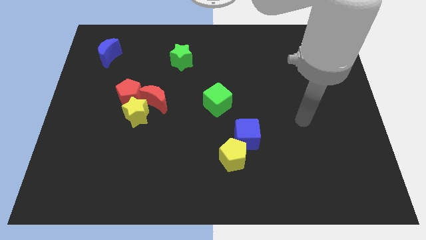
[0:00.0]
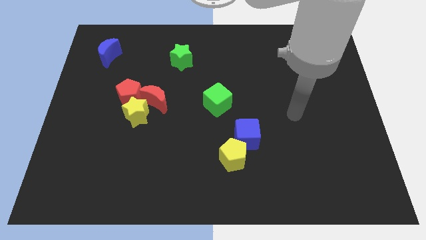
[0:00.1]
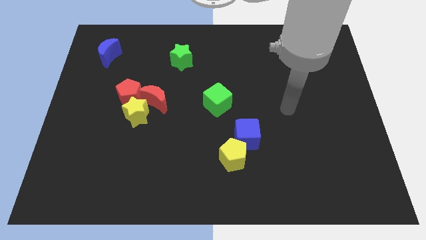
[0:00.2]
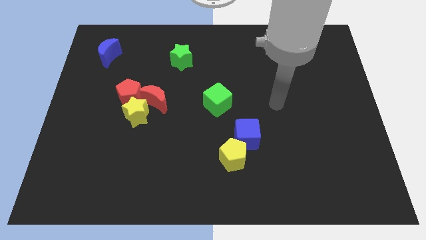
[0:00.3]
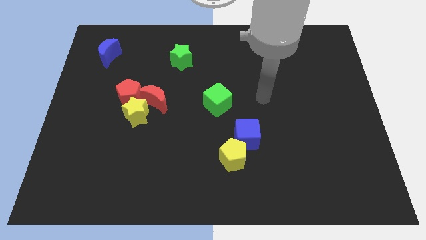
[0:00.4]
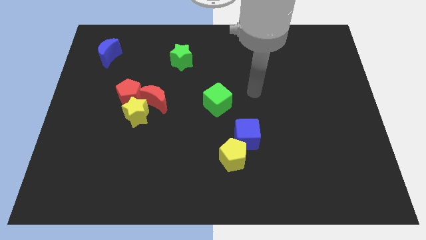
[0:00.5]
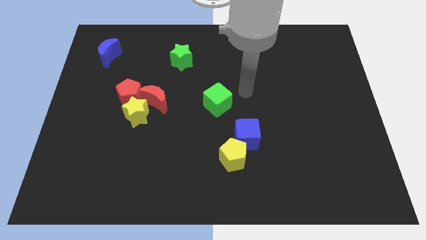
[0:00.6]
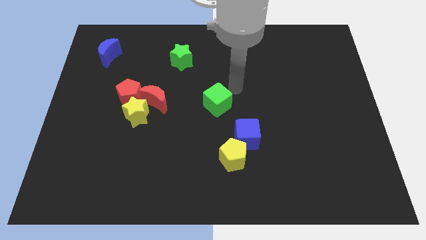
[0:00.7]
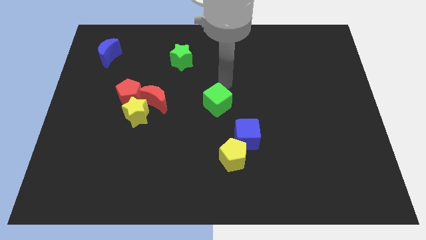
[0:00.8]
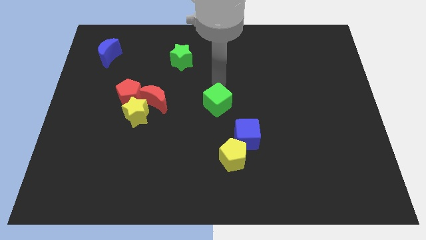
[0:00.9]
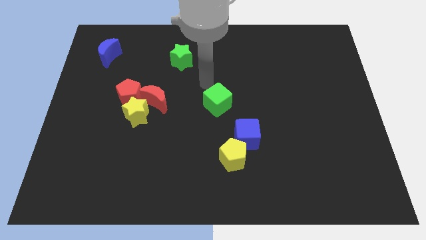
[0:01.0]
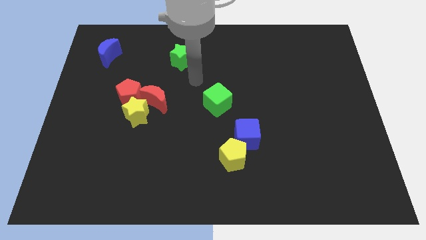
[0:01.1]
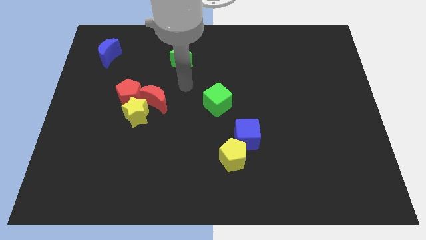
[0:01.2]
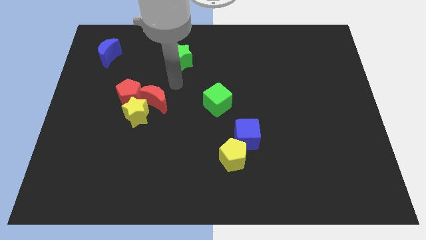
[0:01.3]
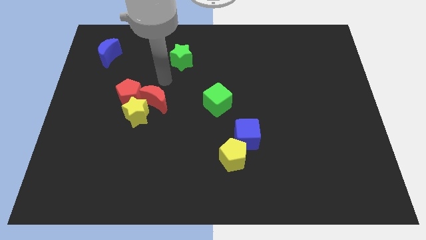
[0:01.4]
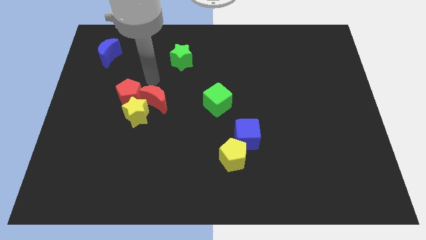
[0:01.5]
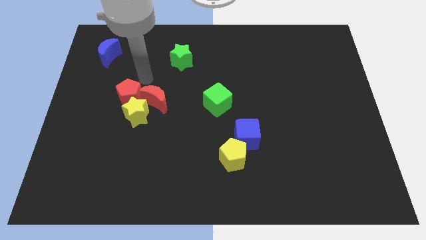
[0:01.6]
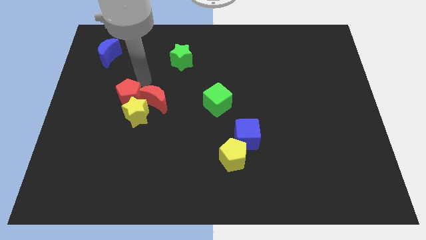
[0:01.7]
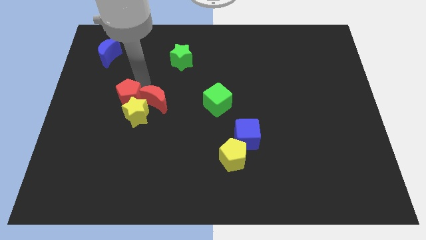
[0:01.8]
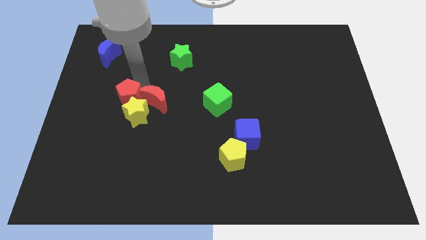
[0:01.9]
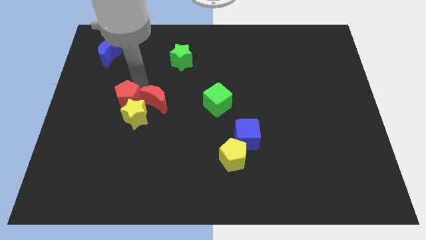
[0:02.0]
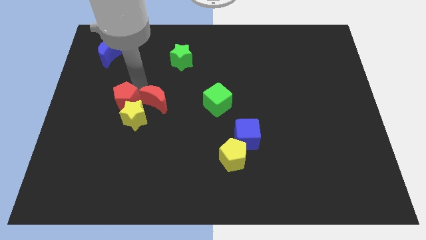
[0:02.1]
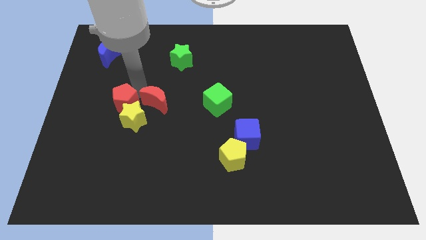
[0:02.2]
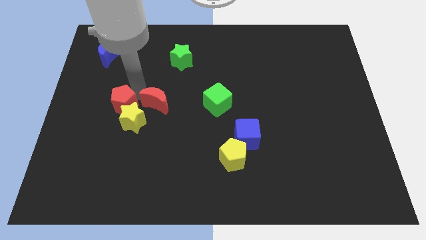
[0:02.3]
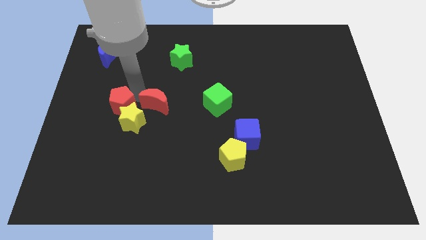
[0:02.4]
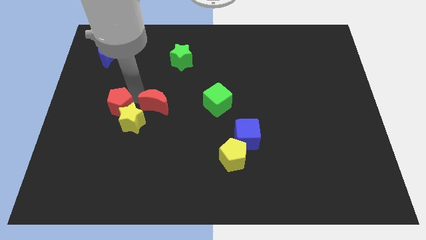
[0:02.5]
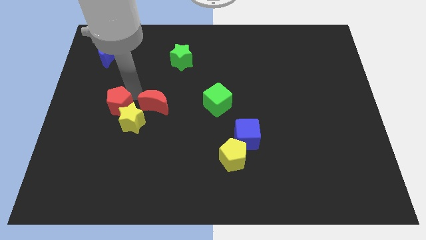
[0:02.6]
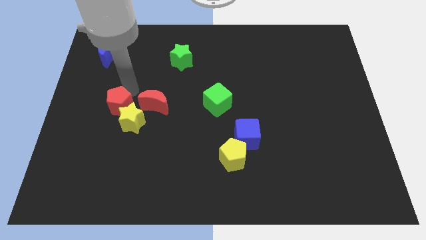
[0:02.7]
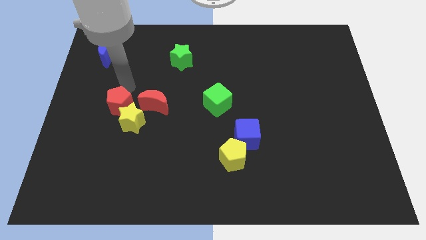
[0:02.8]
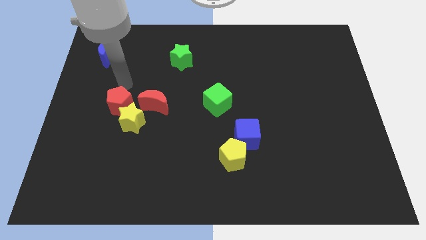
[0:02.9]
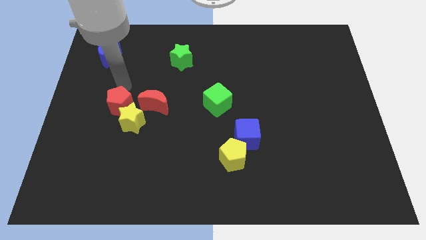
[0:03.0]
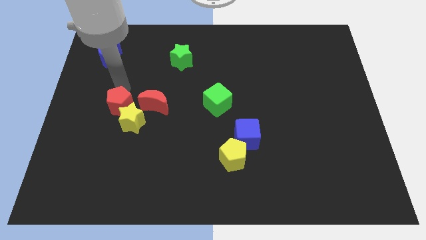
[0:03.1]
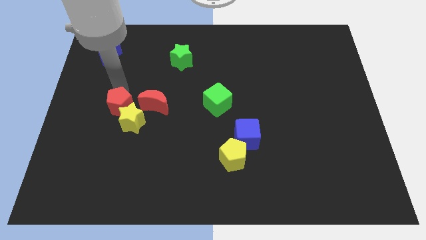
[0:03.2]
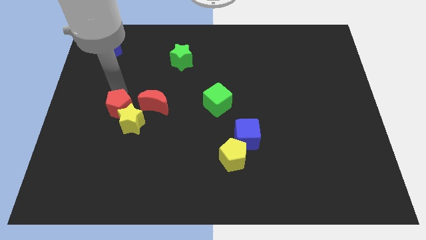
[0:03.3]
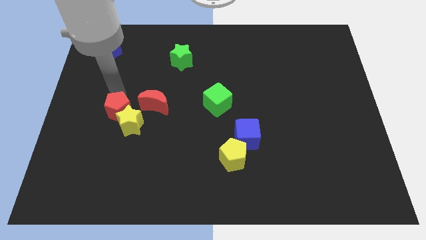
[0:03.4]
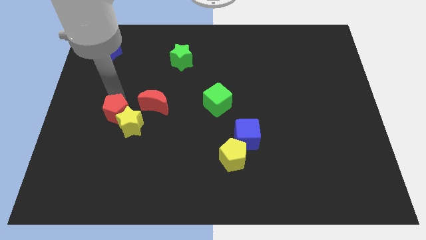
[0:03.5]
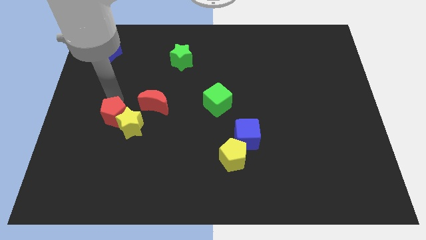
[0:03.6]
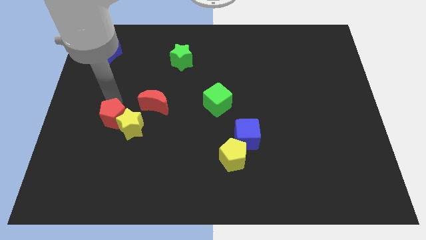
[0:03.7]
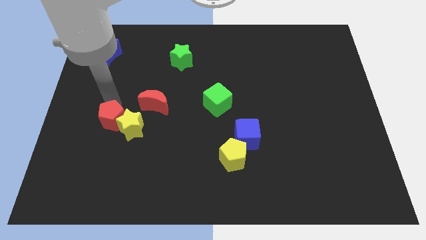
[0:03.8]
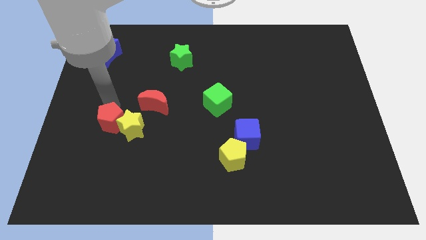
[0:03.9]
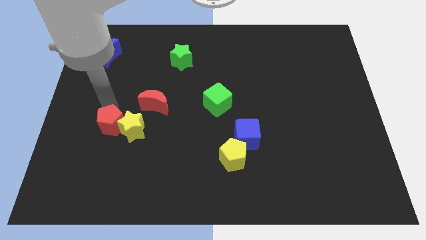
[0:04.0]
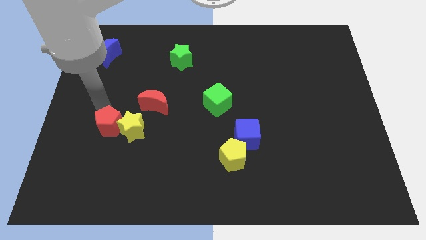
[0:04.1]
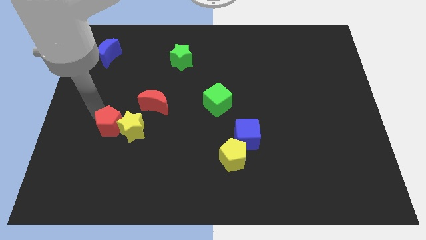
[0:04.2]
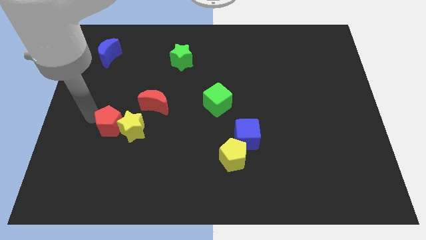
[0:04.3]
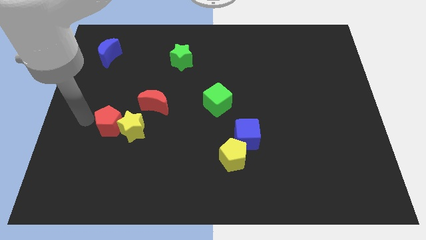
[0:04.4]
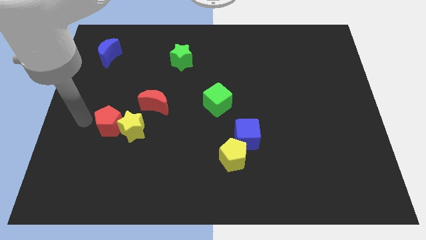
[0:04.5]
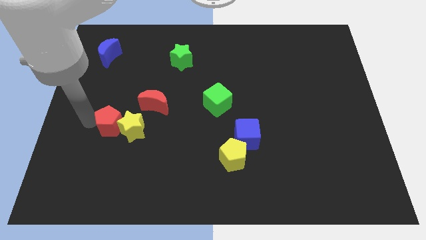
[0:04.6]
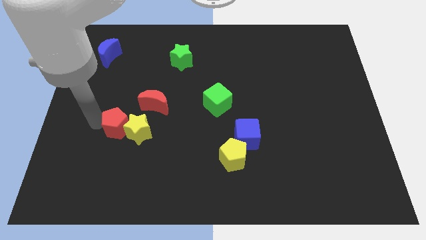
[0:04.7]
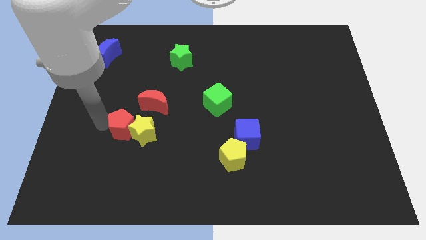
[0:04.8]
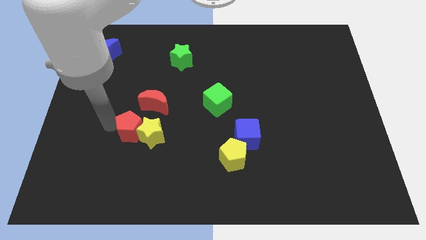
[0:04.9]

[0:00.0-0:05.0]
push the red pentagon below the red moon

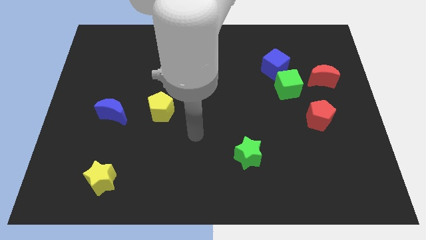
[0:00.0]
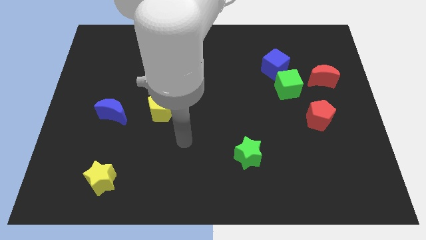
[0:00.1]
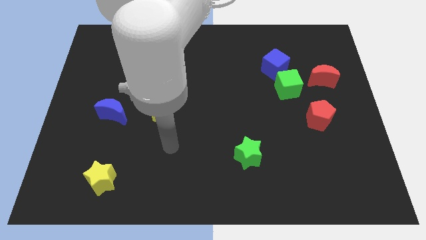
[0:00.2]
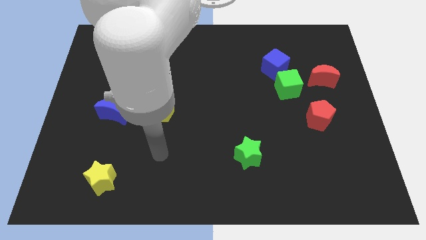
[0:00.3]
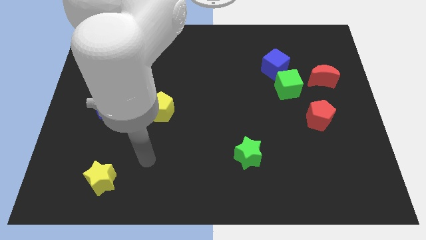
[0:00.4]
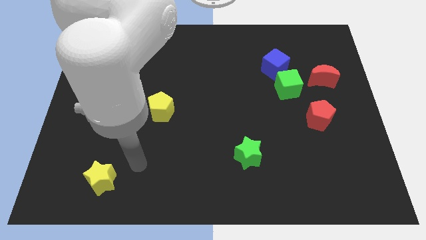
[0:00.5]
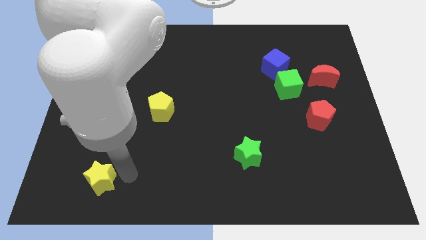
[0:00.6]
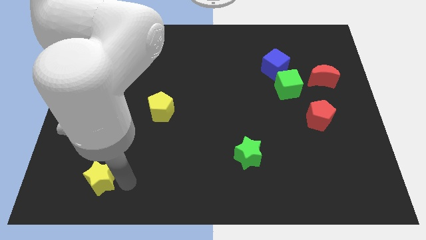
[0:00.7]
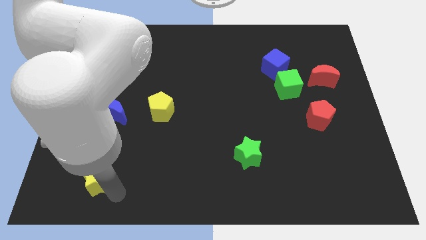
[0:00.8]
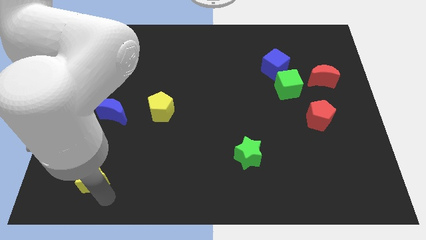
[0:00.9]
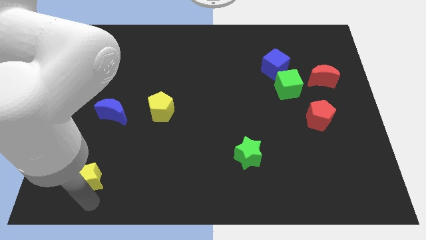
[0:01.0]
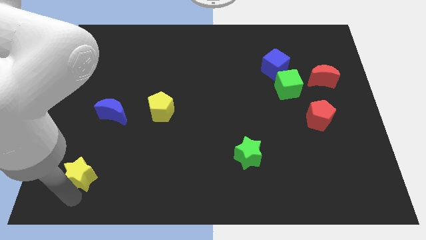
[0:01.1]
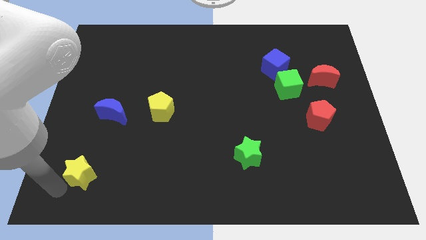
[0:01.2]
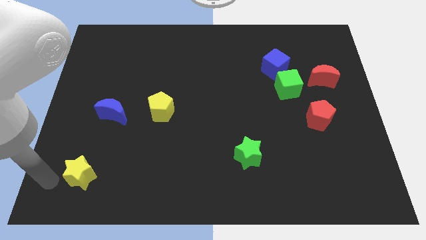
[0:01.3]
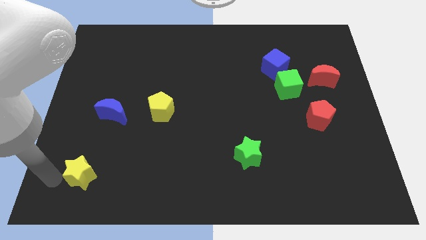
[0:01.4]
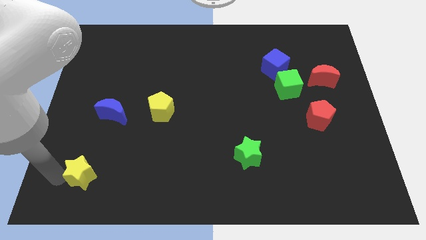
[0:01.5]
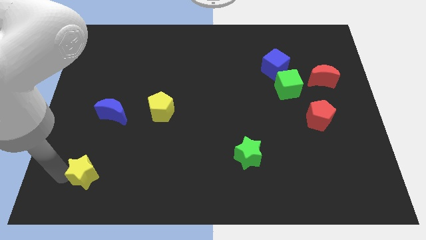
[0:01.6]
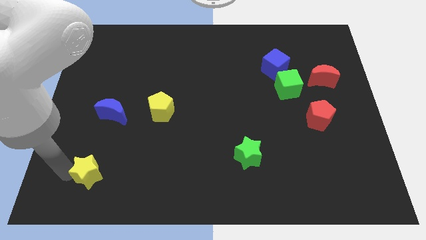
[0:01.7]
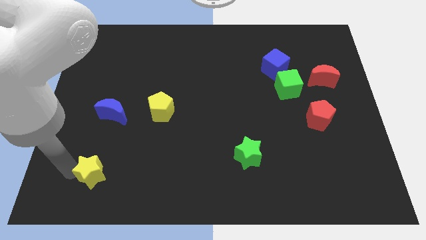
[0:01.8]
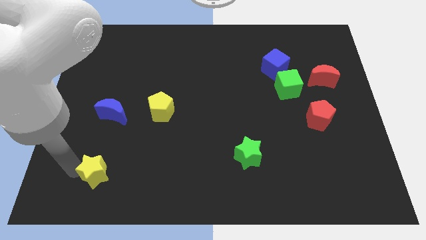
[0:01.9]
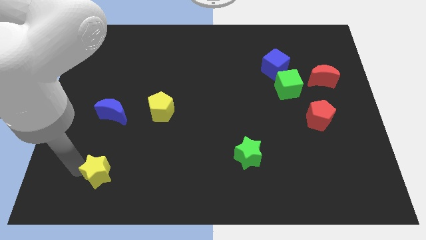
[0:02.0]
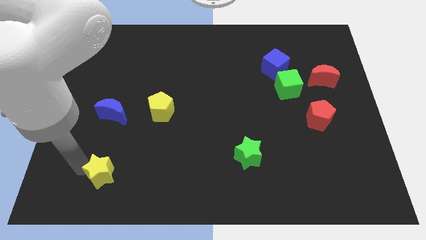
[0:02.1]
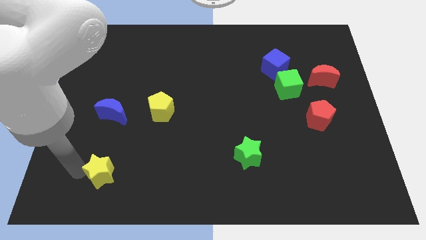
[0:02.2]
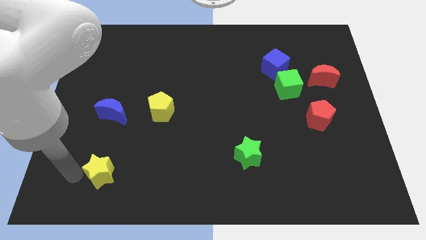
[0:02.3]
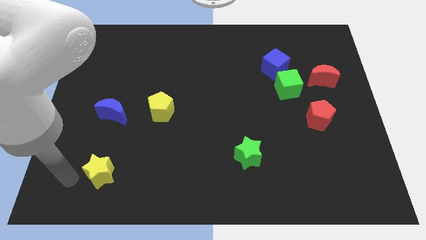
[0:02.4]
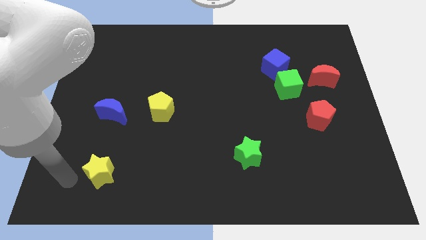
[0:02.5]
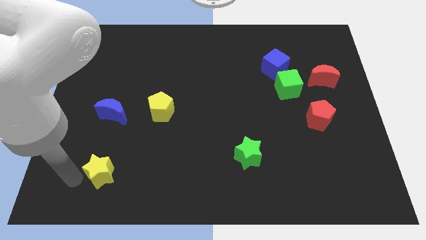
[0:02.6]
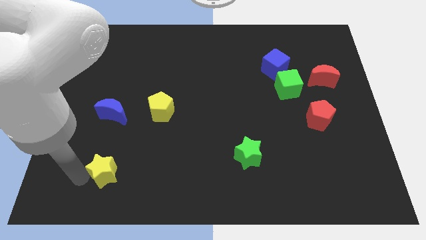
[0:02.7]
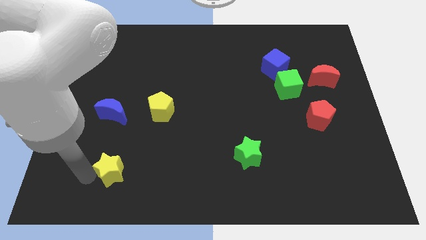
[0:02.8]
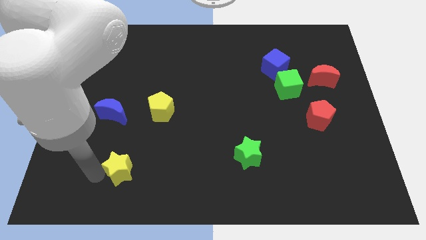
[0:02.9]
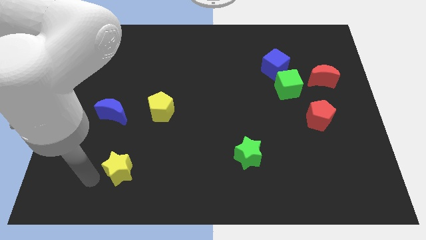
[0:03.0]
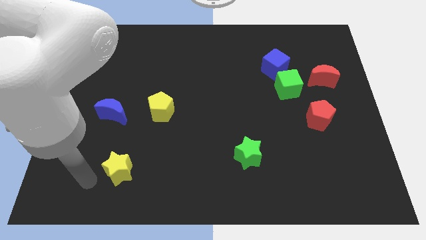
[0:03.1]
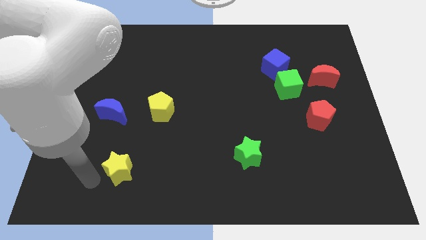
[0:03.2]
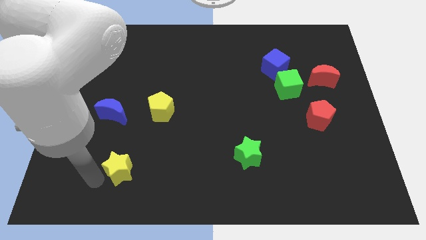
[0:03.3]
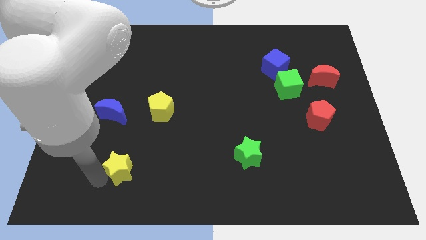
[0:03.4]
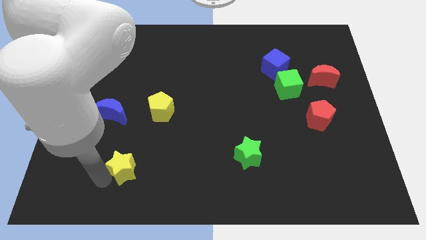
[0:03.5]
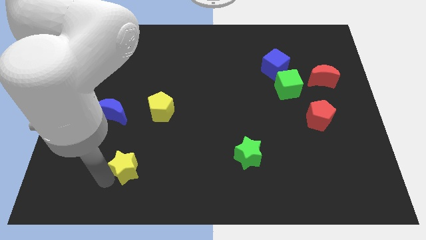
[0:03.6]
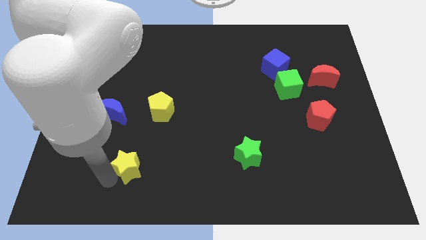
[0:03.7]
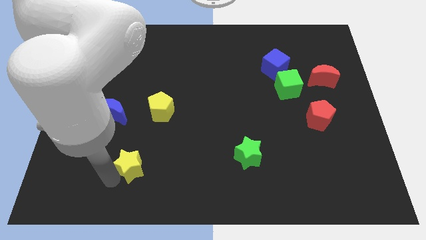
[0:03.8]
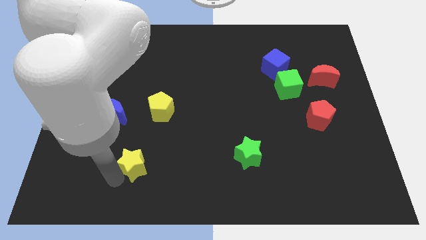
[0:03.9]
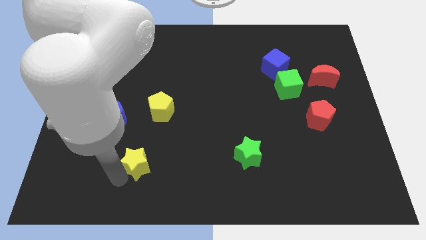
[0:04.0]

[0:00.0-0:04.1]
put the yellow star to the bottom side of the yellow pentagon
